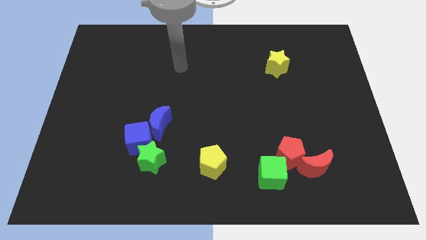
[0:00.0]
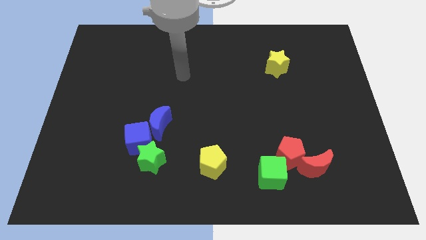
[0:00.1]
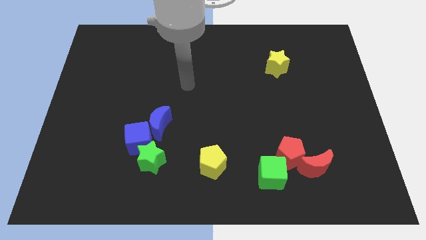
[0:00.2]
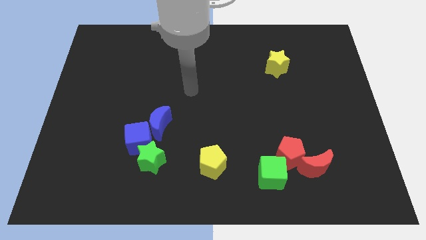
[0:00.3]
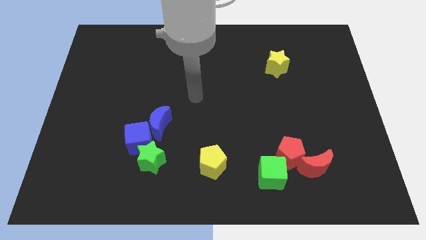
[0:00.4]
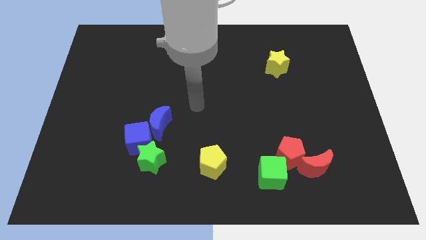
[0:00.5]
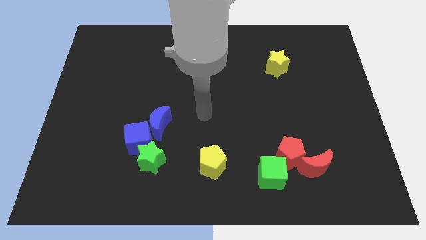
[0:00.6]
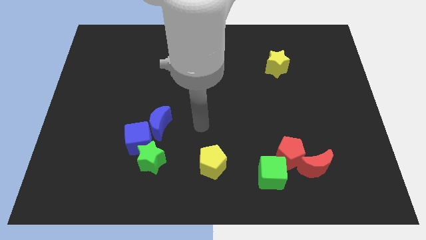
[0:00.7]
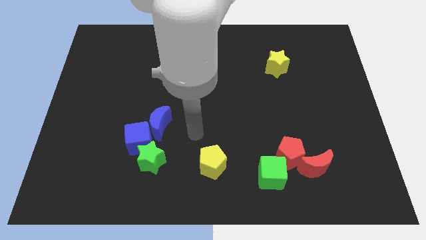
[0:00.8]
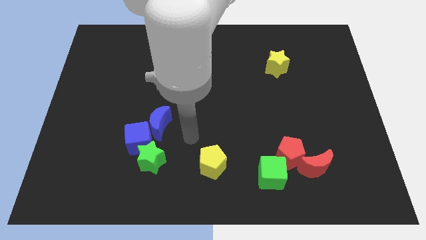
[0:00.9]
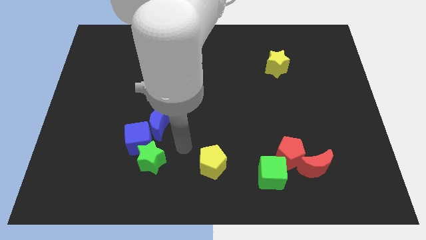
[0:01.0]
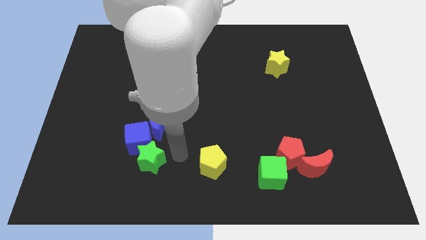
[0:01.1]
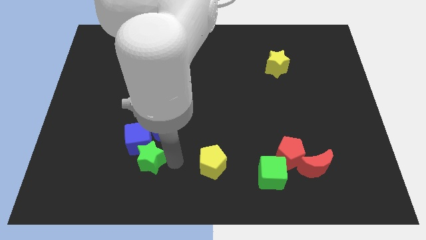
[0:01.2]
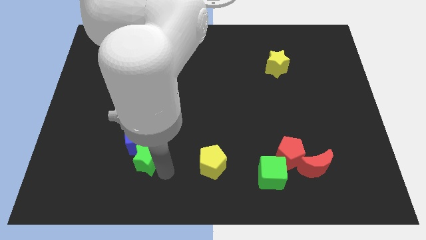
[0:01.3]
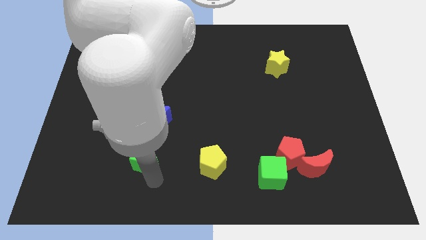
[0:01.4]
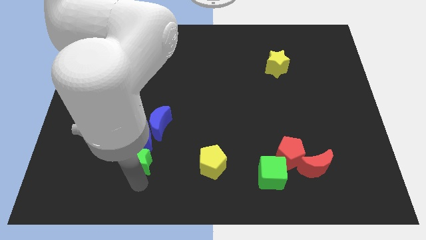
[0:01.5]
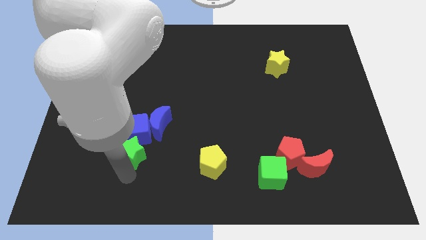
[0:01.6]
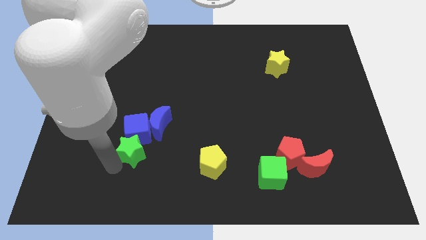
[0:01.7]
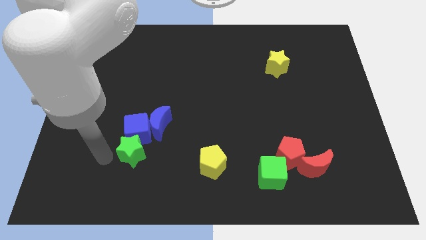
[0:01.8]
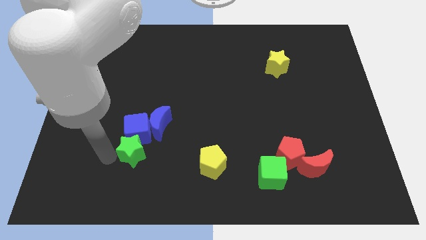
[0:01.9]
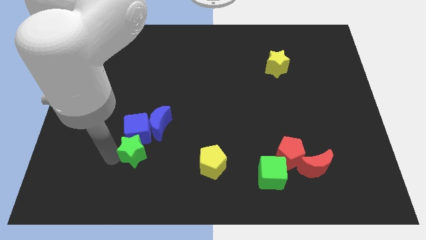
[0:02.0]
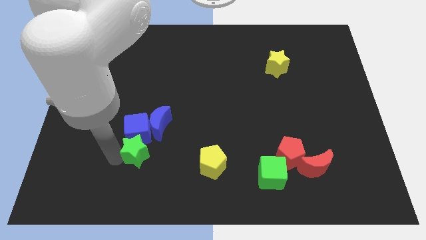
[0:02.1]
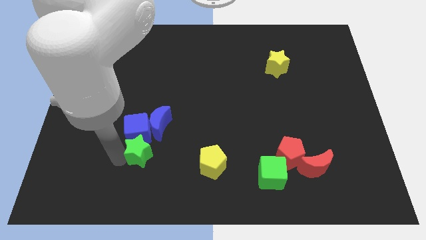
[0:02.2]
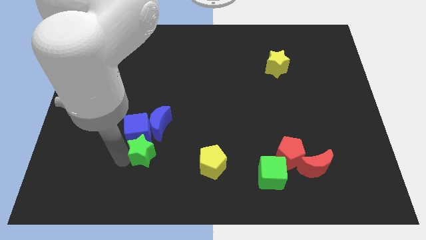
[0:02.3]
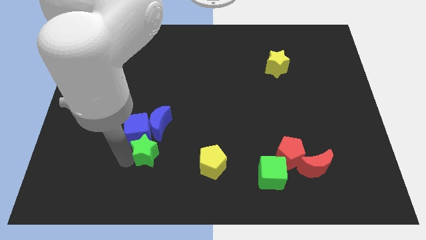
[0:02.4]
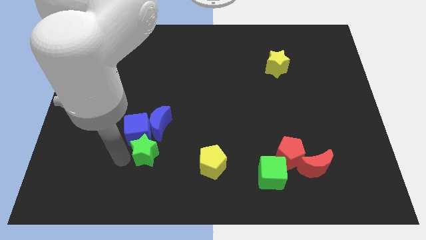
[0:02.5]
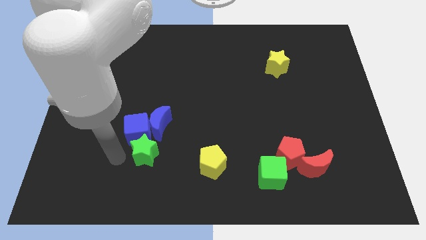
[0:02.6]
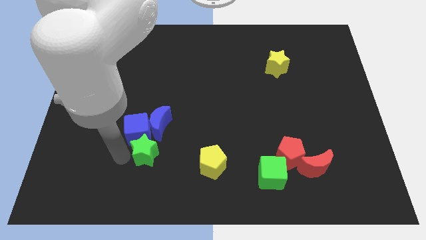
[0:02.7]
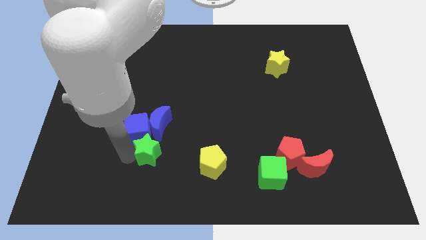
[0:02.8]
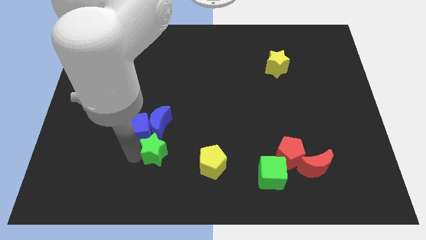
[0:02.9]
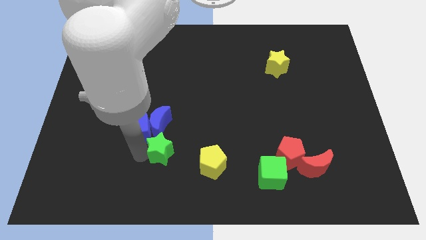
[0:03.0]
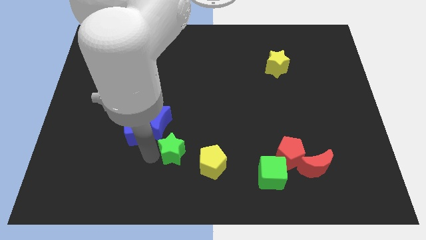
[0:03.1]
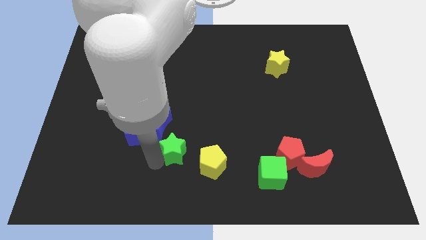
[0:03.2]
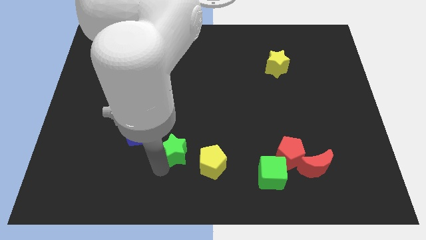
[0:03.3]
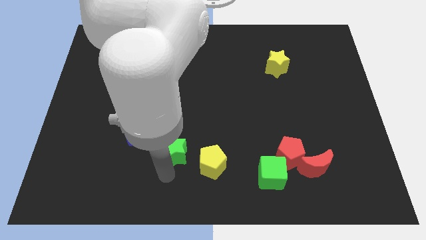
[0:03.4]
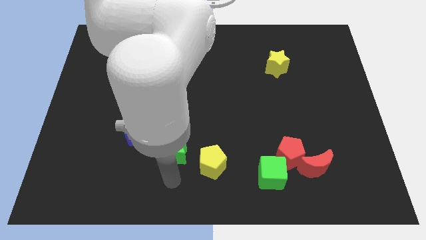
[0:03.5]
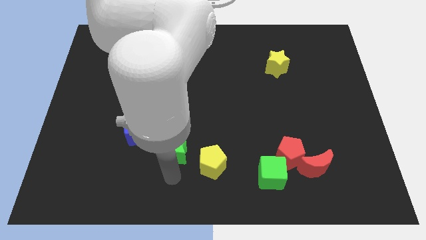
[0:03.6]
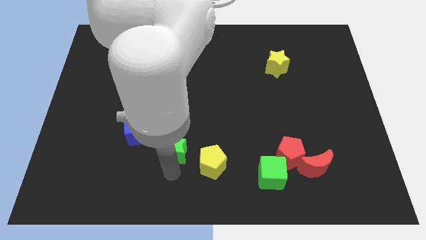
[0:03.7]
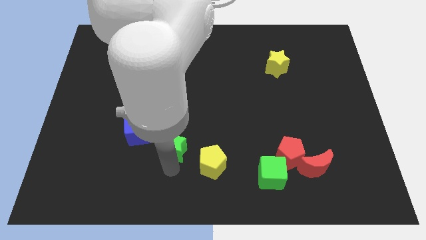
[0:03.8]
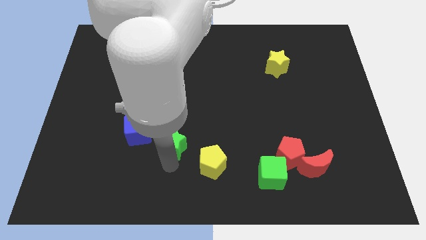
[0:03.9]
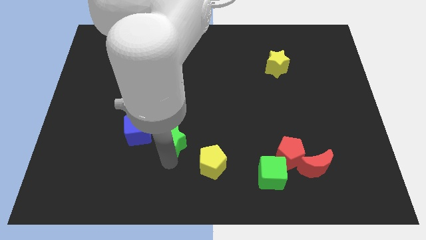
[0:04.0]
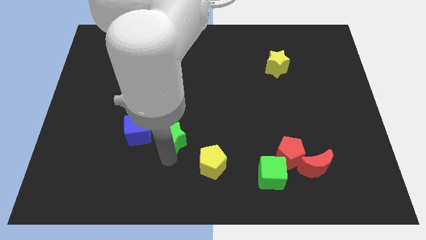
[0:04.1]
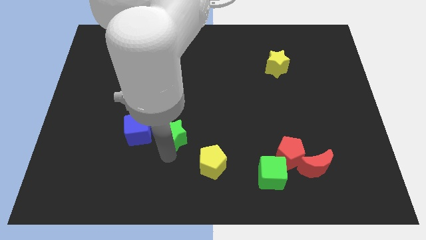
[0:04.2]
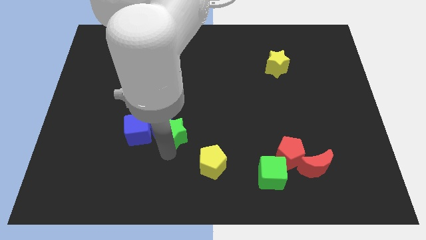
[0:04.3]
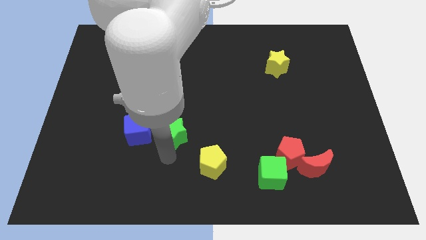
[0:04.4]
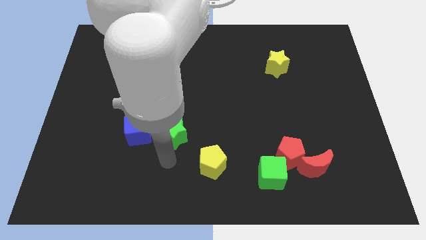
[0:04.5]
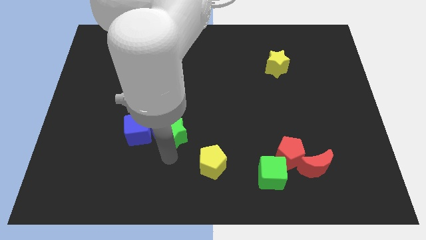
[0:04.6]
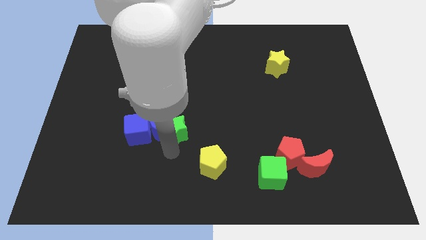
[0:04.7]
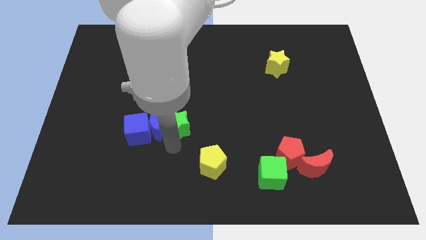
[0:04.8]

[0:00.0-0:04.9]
slightly slide the green star upwards

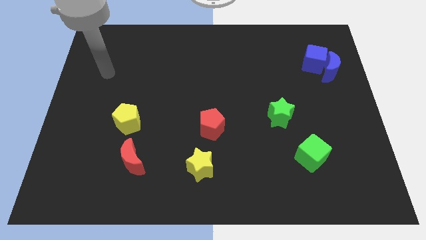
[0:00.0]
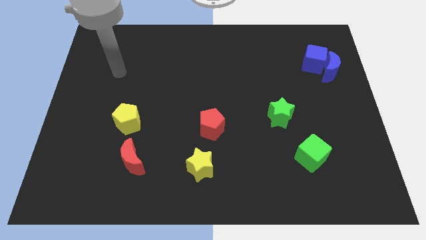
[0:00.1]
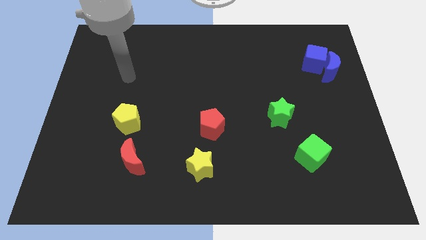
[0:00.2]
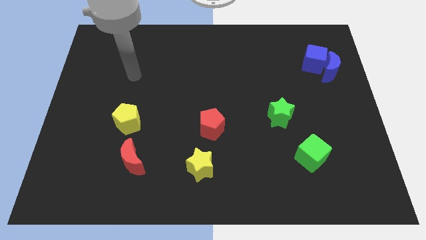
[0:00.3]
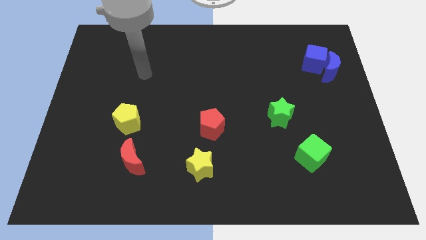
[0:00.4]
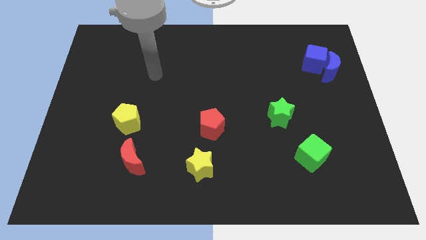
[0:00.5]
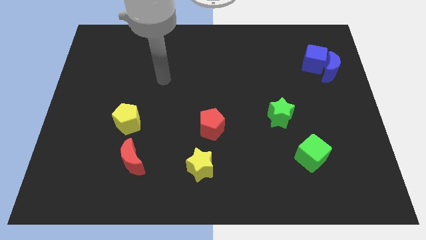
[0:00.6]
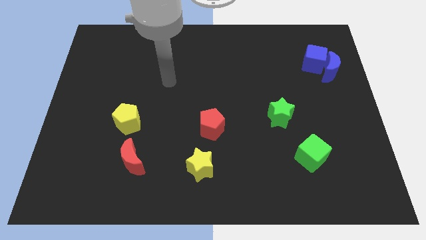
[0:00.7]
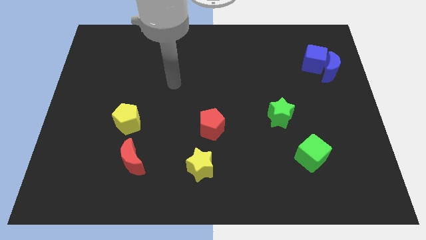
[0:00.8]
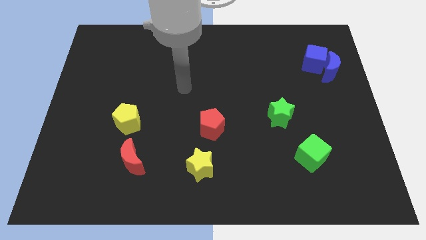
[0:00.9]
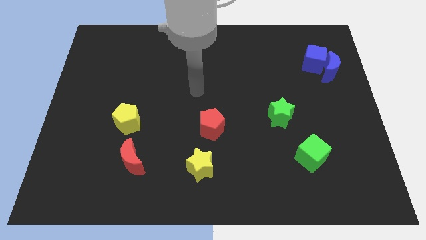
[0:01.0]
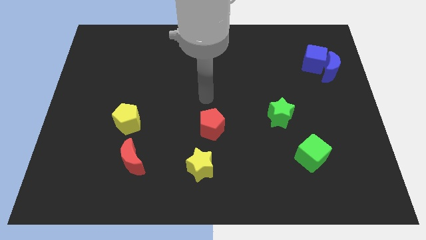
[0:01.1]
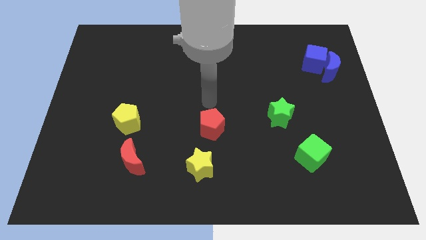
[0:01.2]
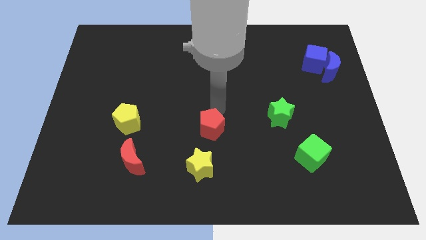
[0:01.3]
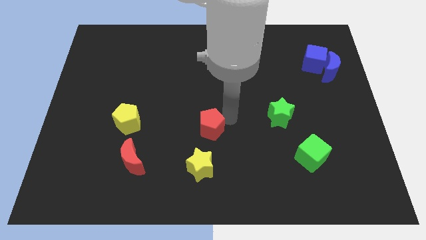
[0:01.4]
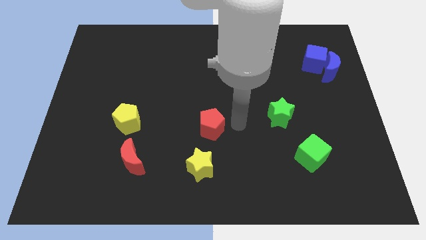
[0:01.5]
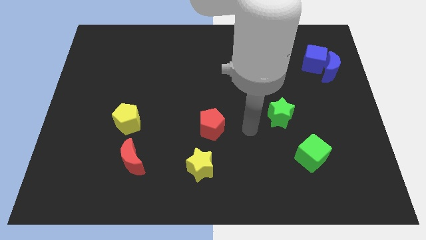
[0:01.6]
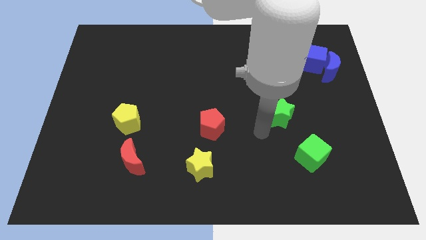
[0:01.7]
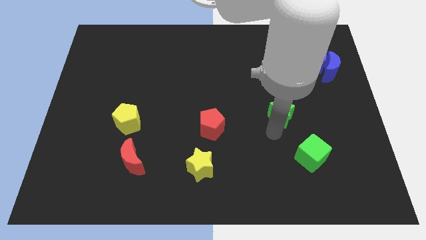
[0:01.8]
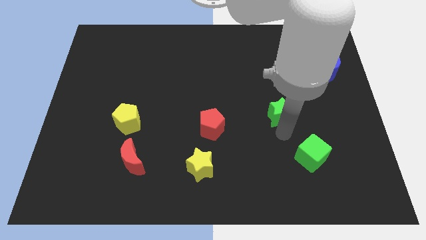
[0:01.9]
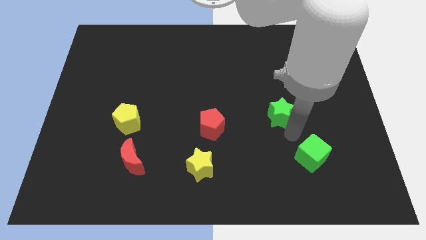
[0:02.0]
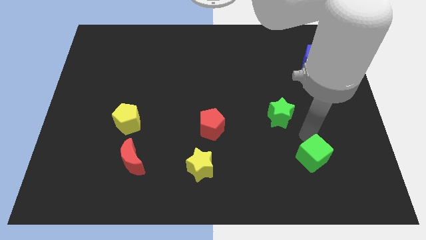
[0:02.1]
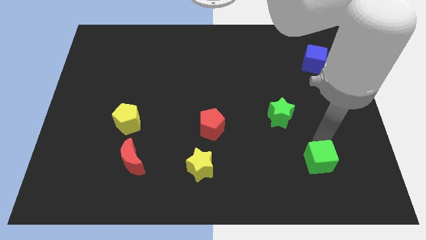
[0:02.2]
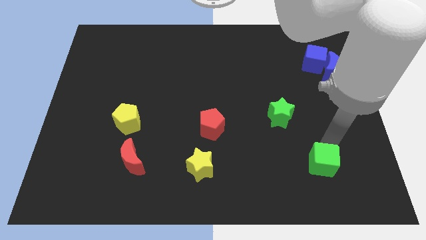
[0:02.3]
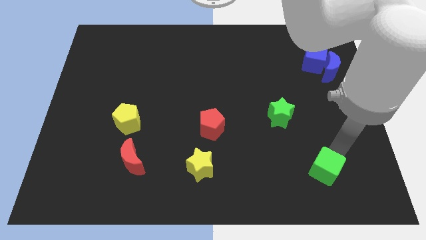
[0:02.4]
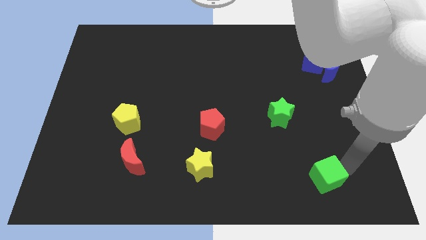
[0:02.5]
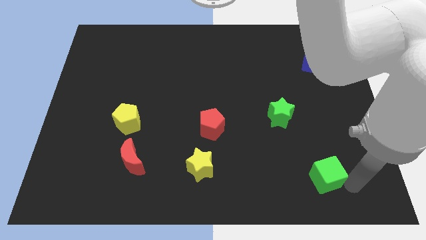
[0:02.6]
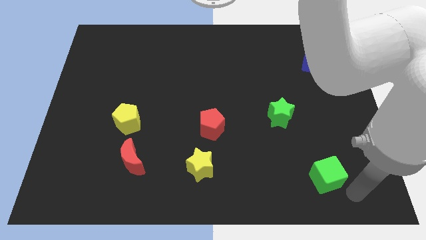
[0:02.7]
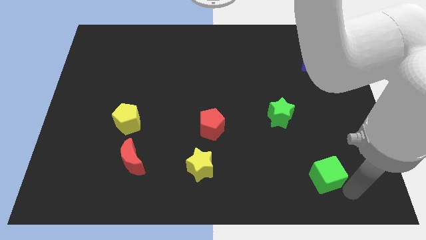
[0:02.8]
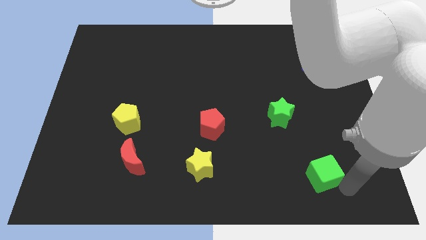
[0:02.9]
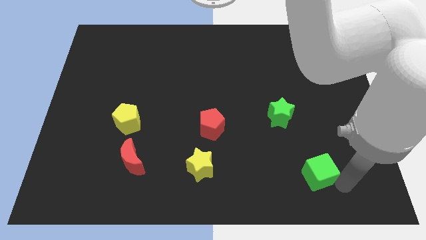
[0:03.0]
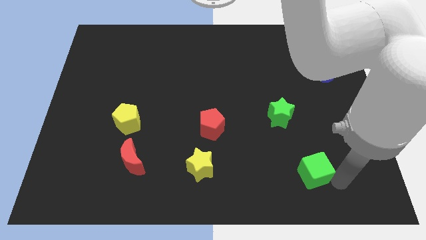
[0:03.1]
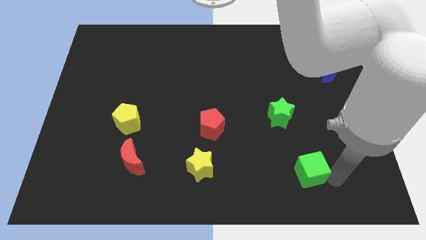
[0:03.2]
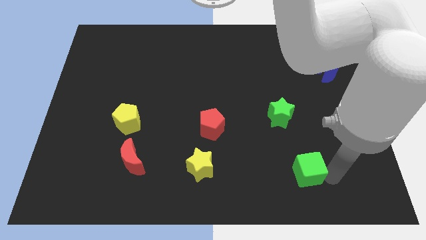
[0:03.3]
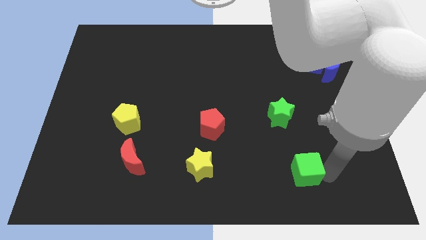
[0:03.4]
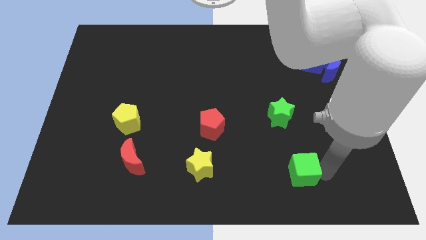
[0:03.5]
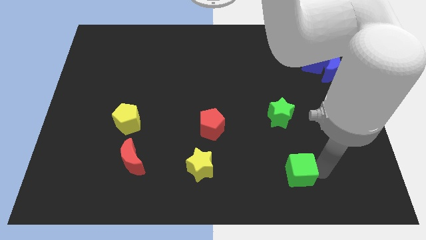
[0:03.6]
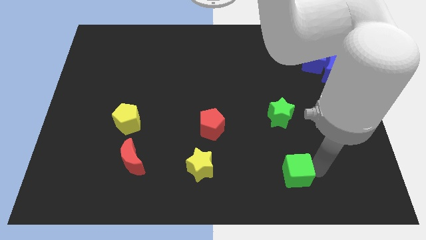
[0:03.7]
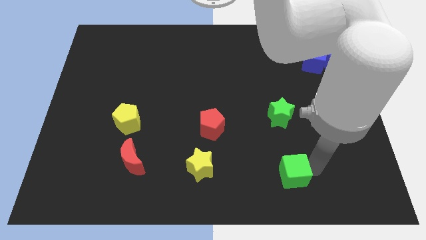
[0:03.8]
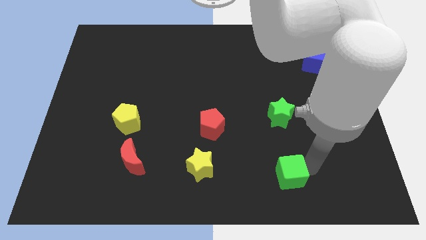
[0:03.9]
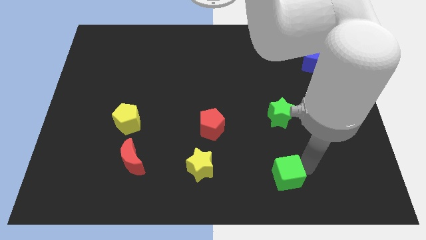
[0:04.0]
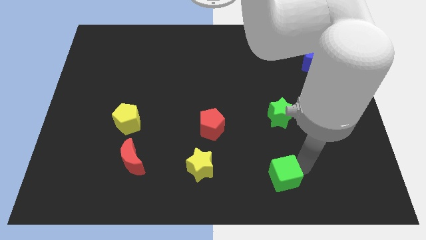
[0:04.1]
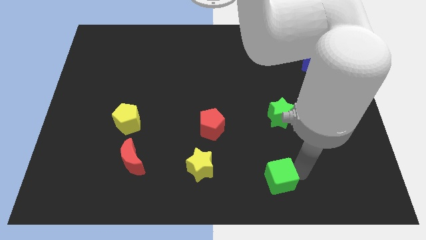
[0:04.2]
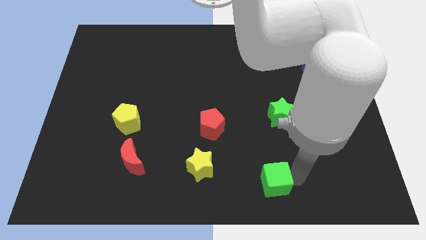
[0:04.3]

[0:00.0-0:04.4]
slightly push the green cube to the left
